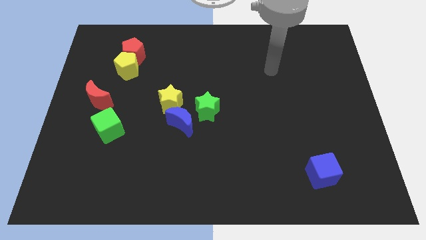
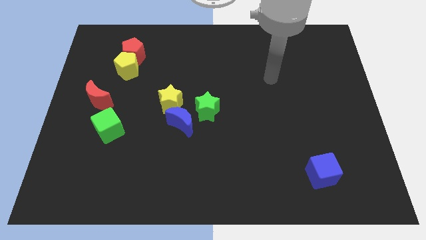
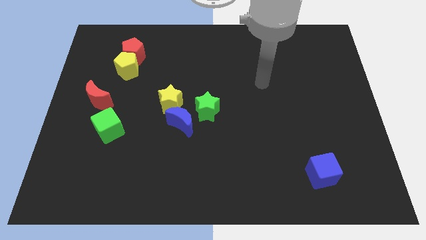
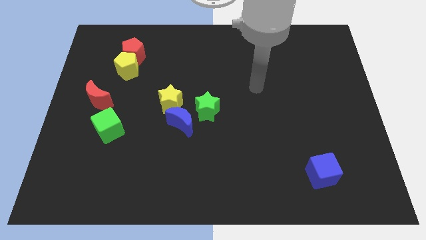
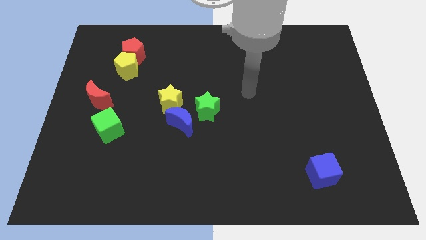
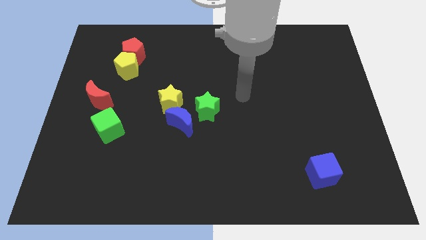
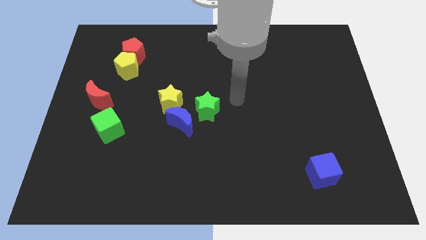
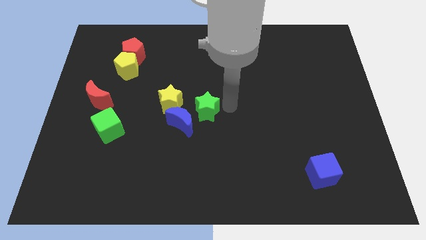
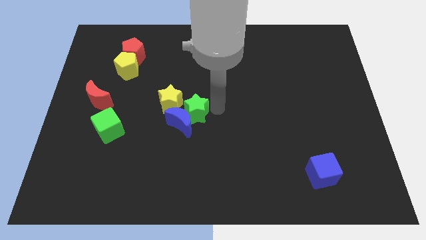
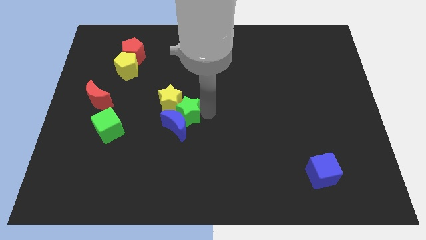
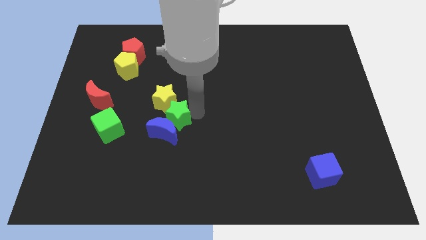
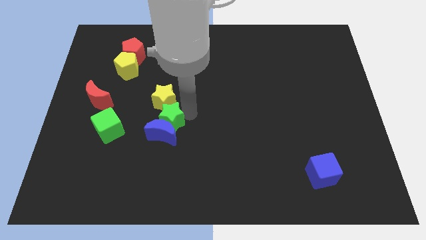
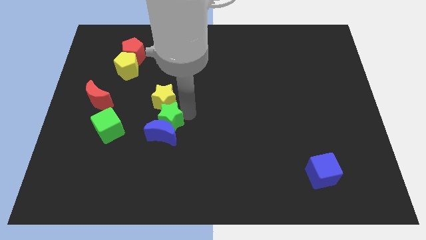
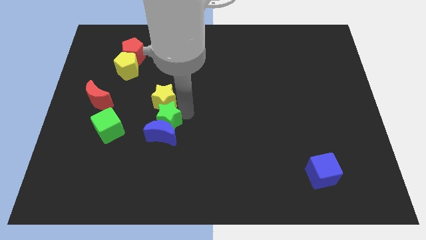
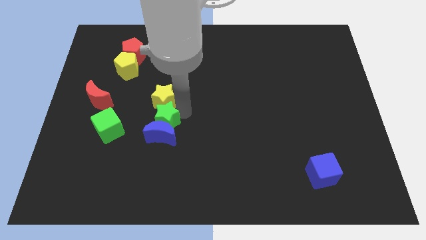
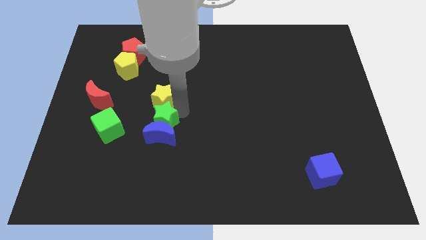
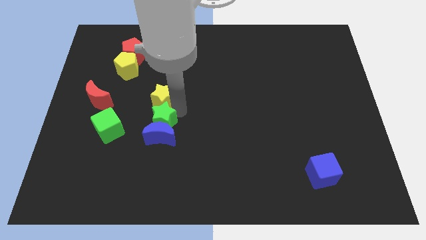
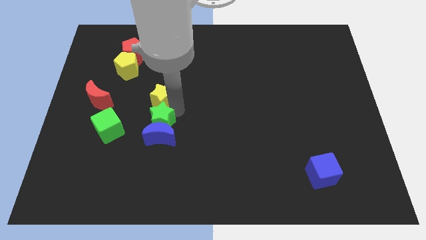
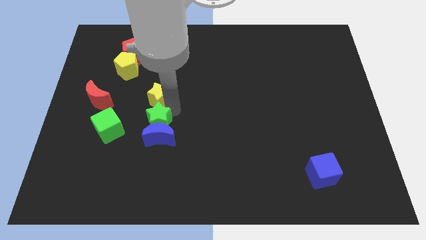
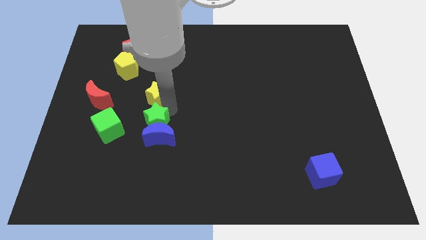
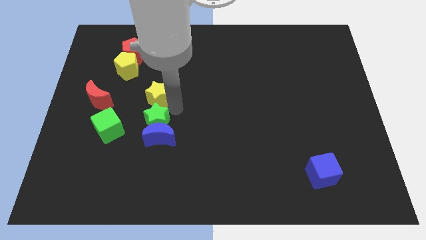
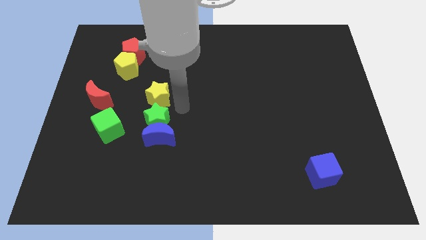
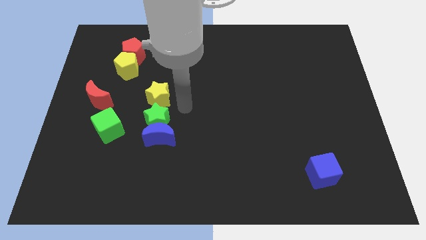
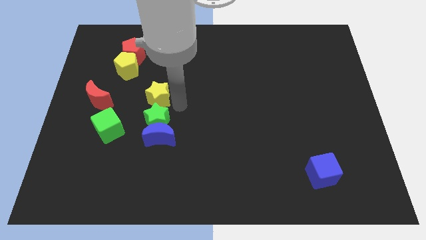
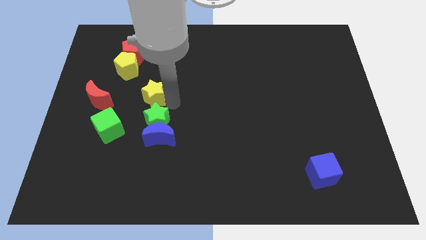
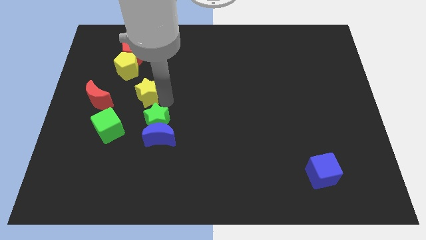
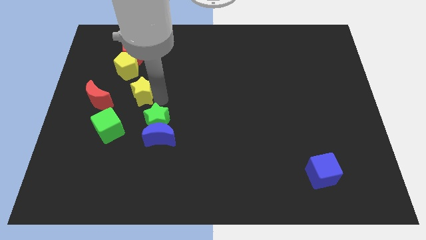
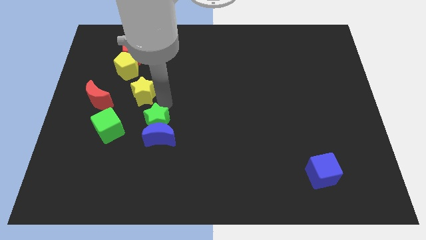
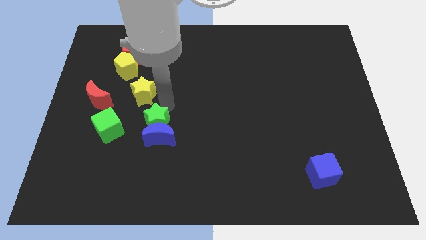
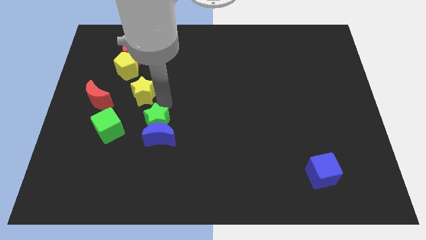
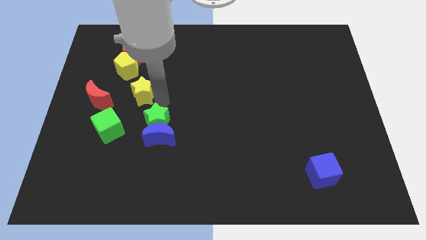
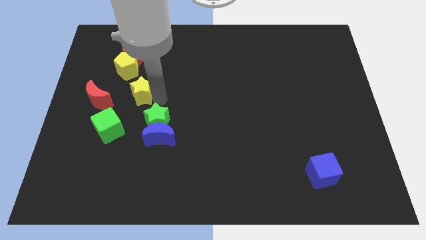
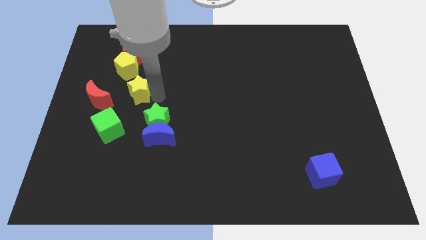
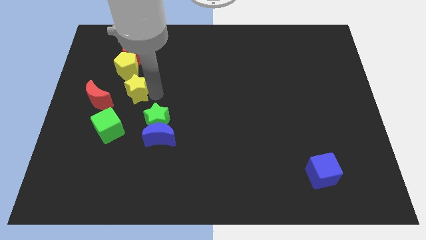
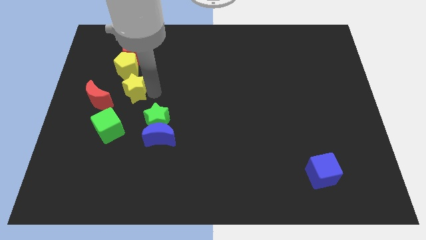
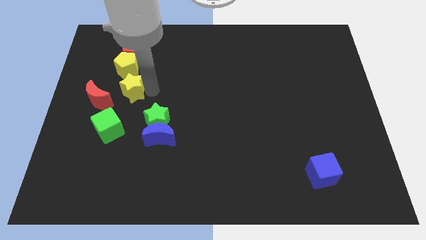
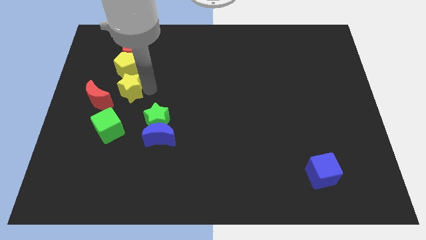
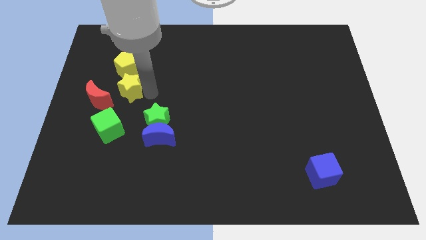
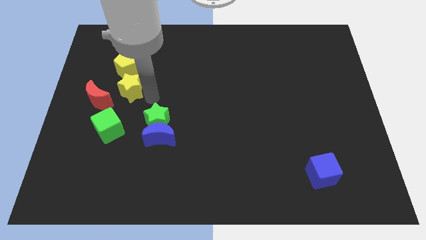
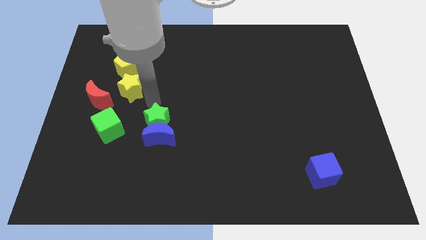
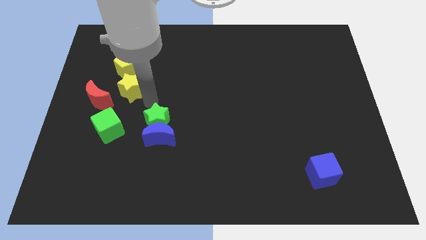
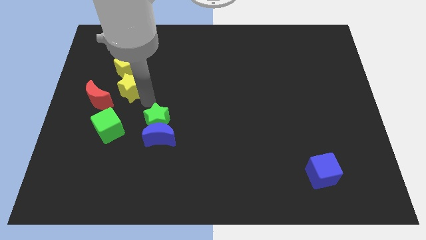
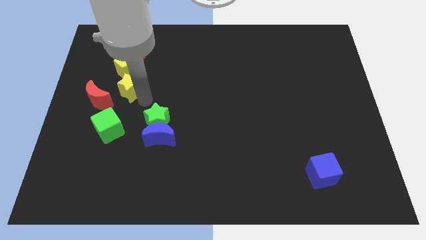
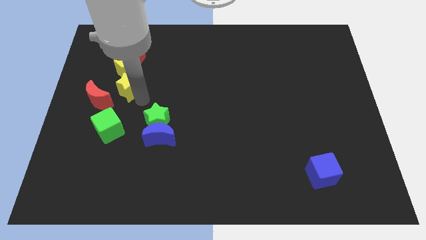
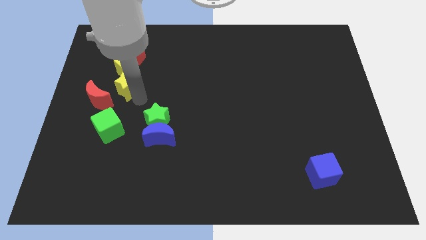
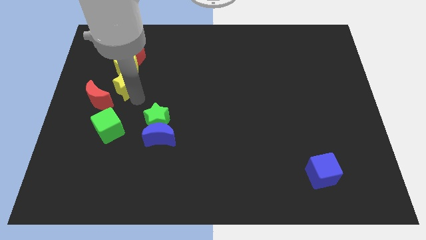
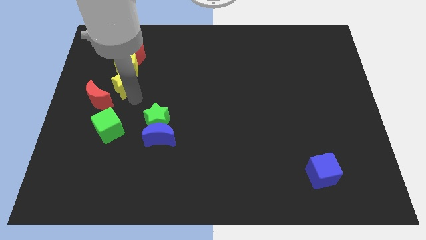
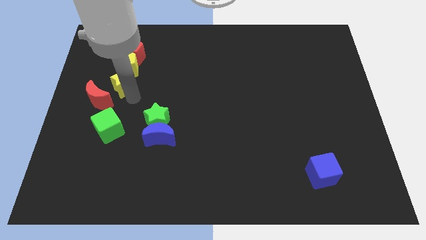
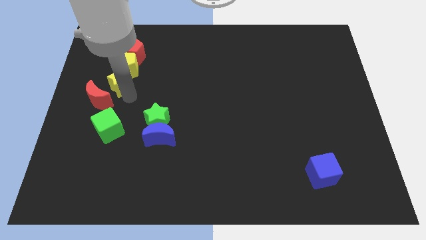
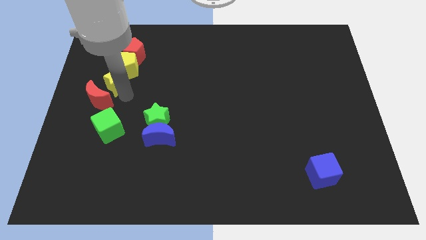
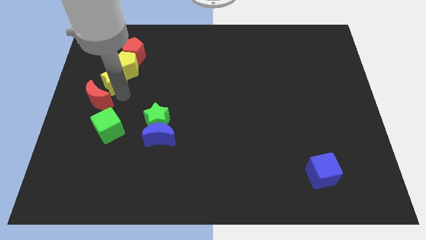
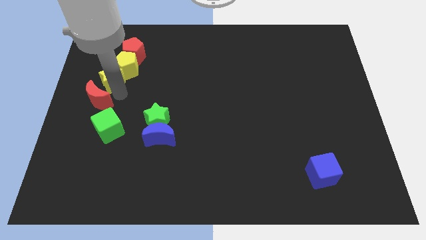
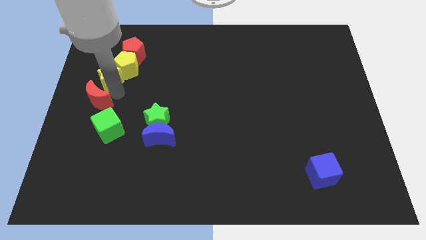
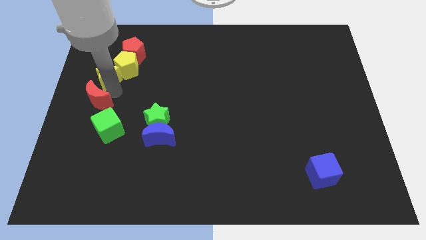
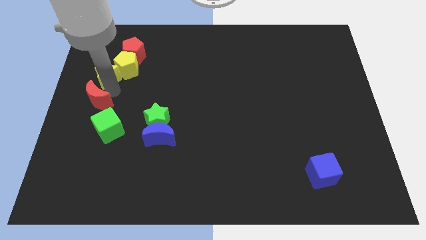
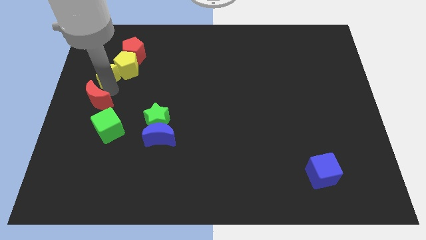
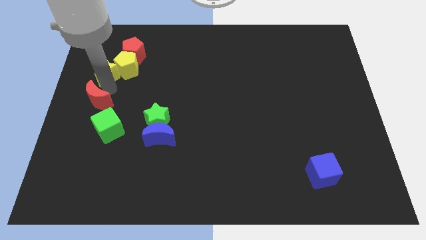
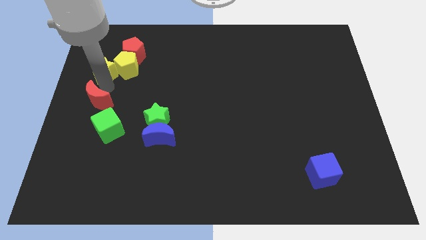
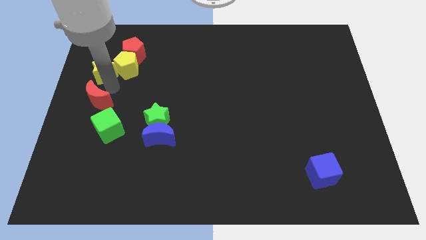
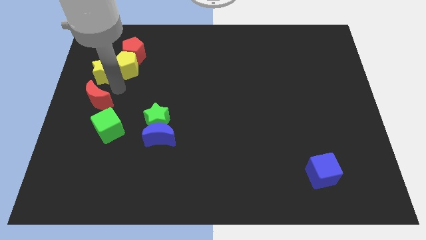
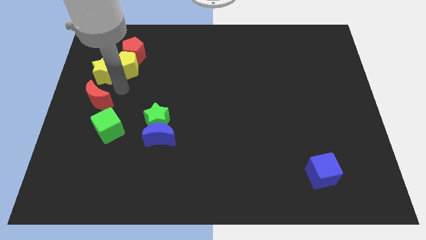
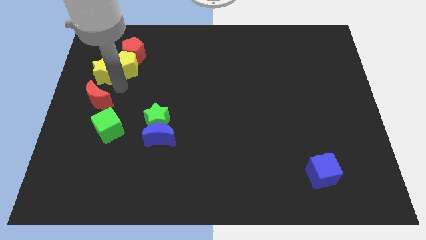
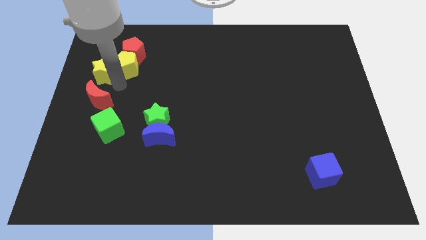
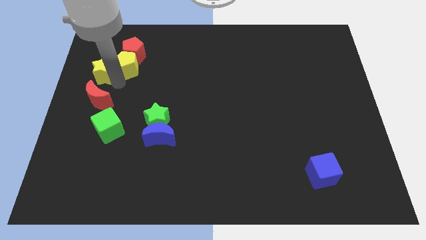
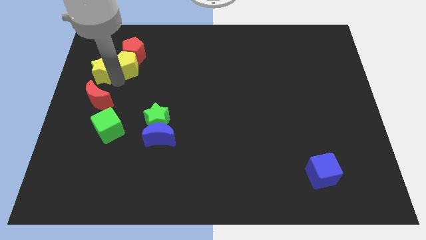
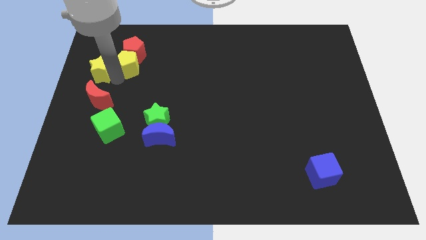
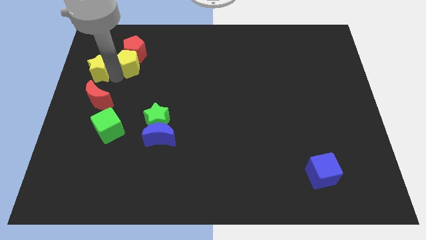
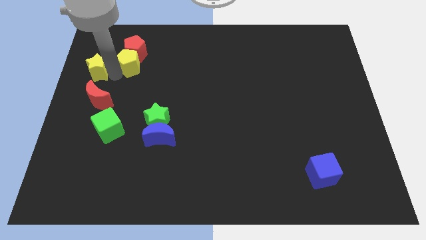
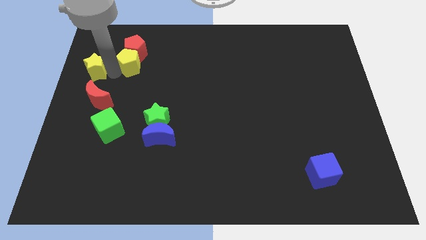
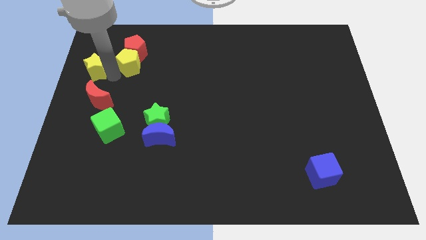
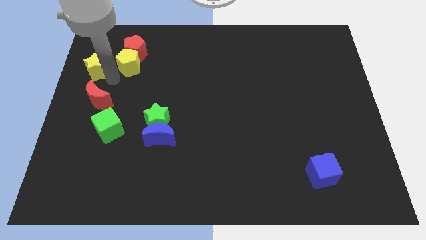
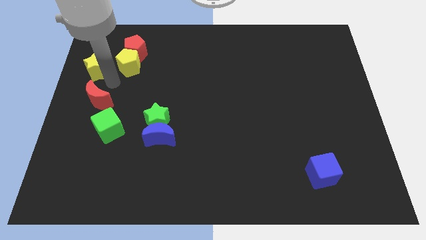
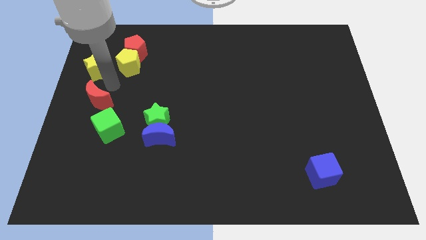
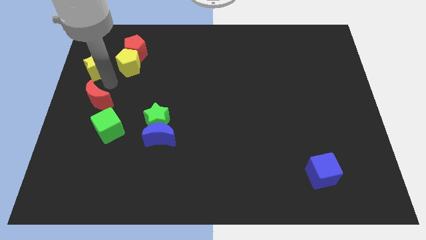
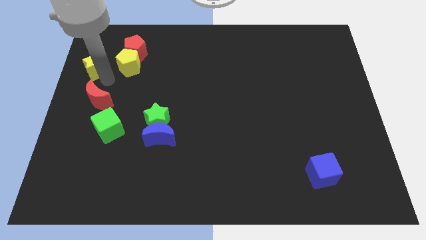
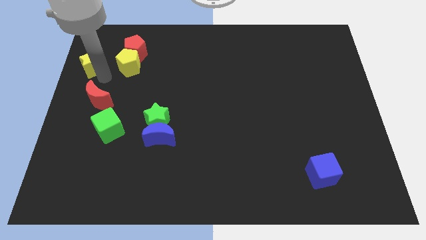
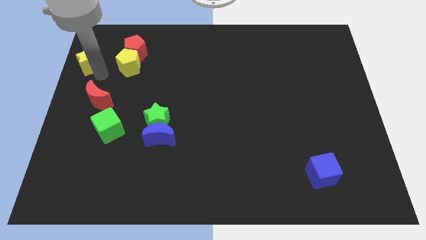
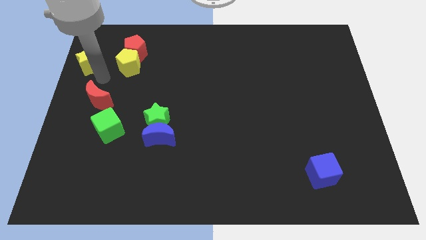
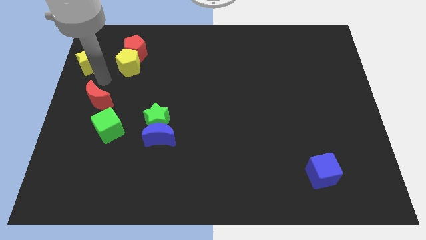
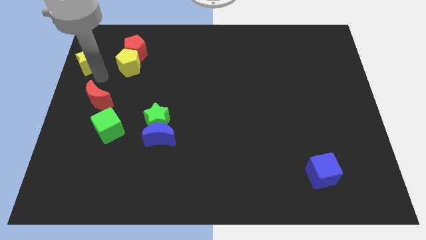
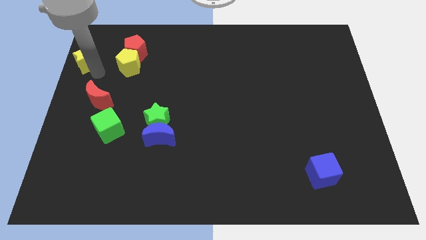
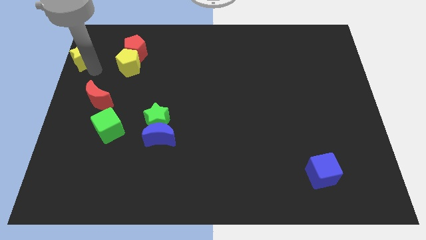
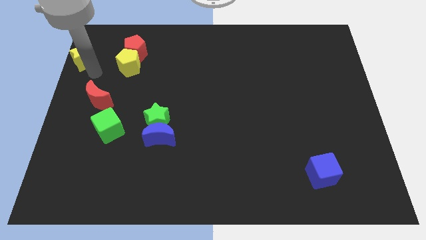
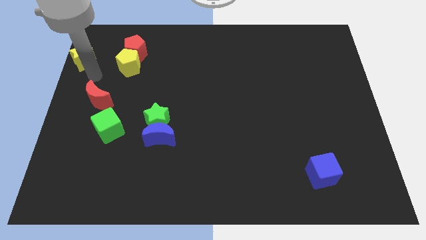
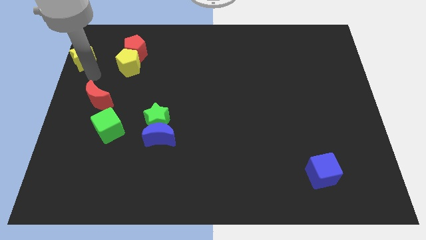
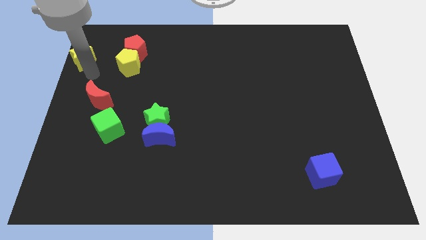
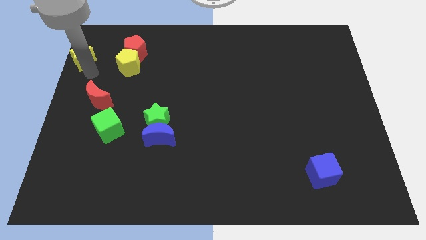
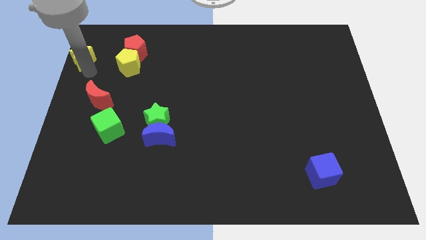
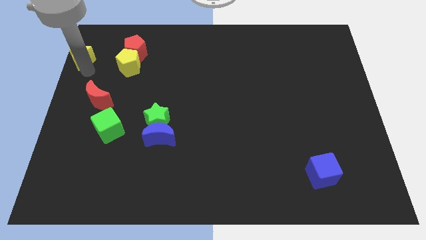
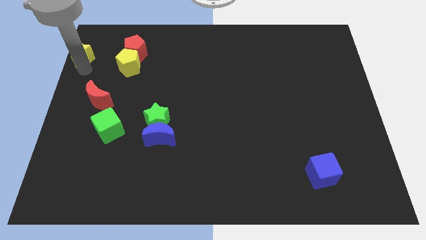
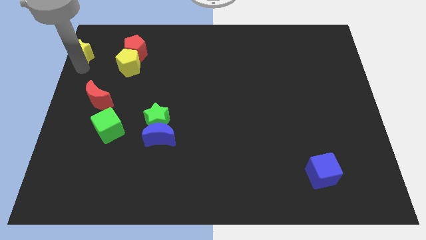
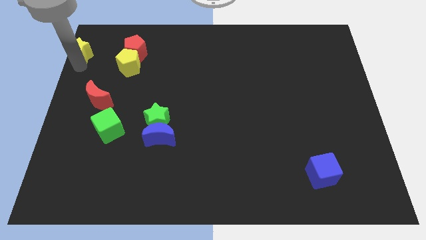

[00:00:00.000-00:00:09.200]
slide the yellow star to the top left of the board
